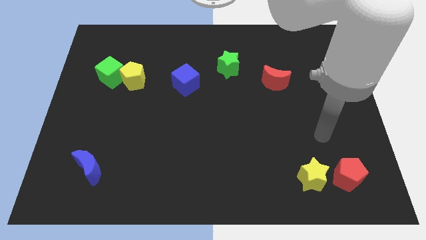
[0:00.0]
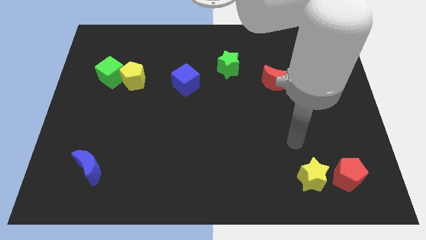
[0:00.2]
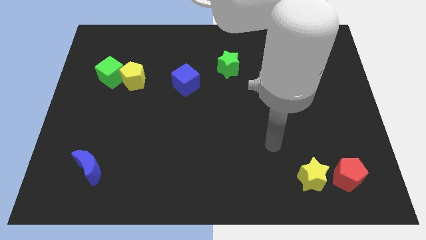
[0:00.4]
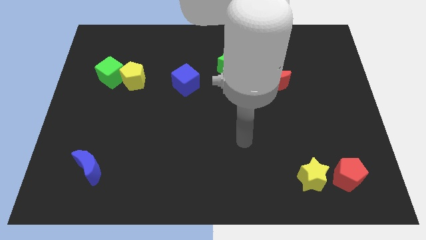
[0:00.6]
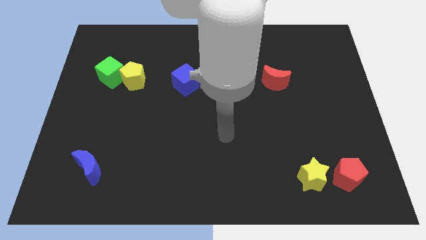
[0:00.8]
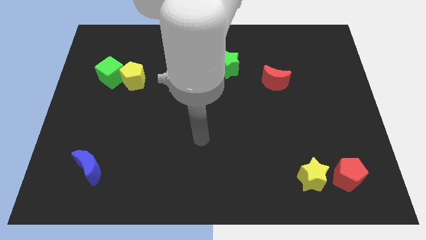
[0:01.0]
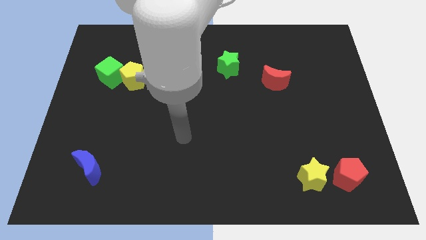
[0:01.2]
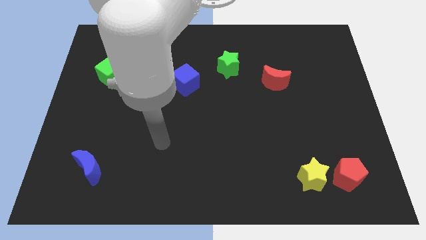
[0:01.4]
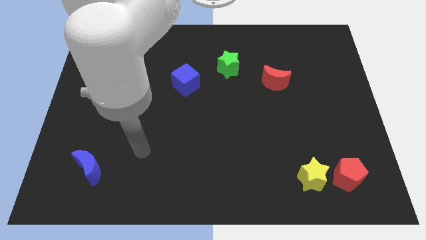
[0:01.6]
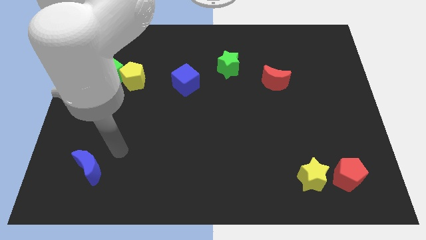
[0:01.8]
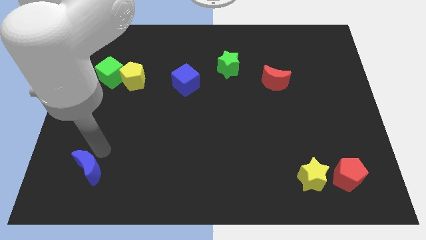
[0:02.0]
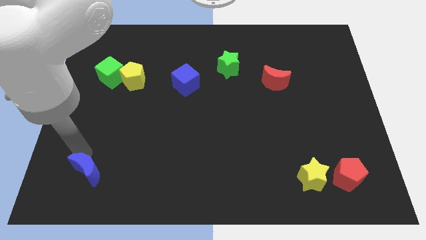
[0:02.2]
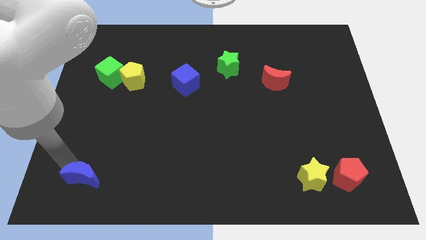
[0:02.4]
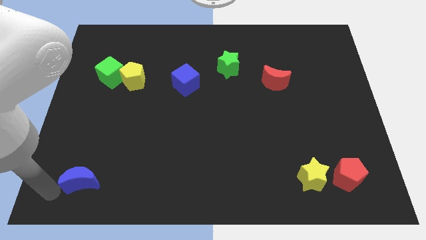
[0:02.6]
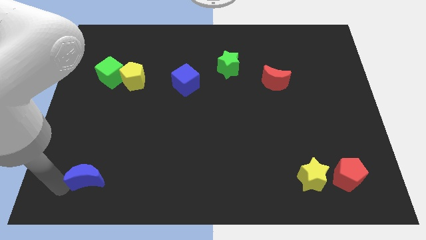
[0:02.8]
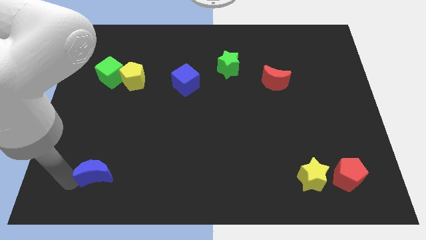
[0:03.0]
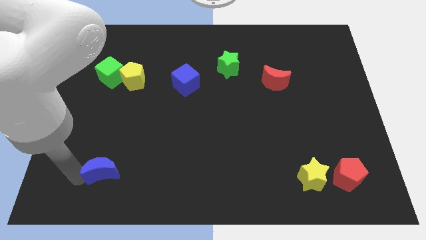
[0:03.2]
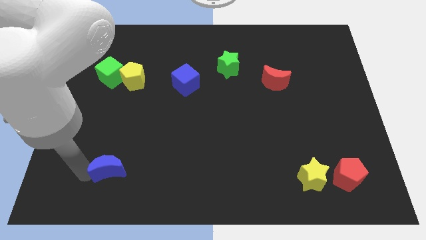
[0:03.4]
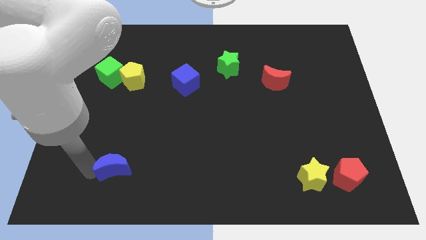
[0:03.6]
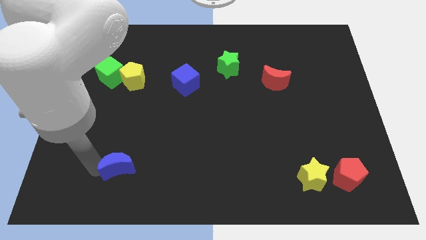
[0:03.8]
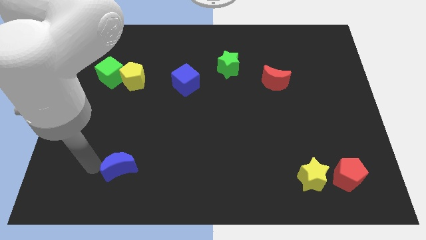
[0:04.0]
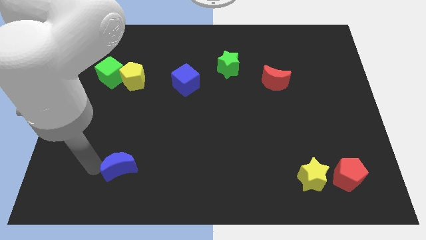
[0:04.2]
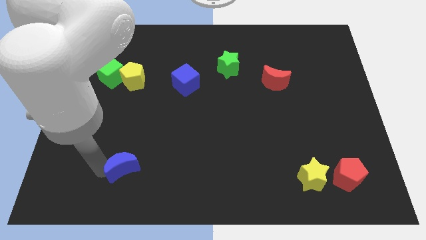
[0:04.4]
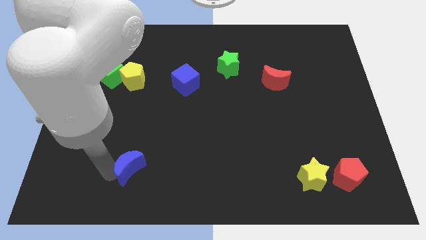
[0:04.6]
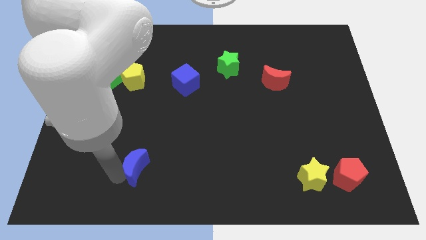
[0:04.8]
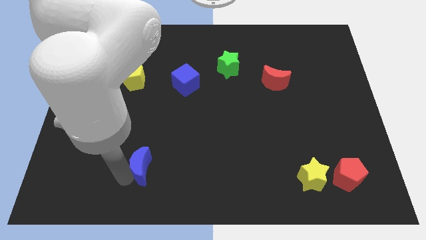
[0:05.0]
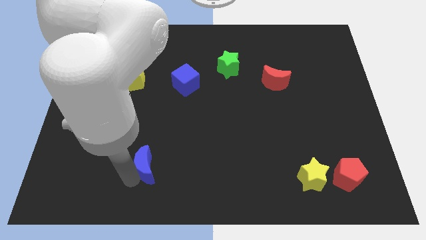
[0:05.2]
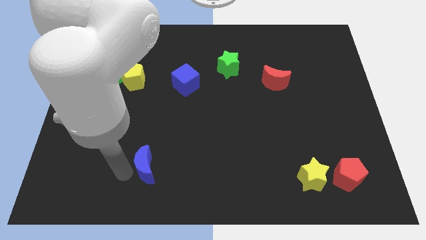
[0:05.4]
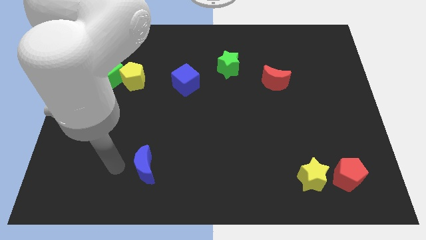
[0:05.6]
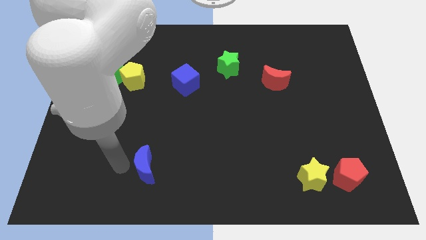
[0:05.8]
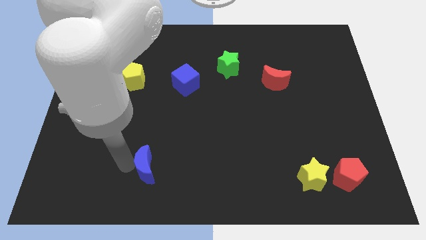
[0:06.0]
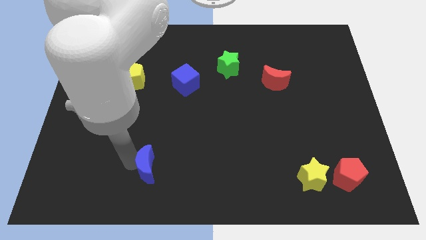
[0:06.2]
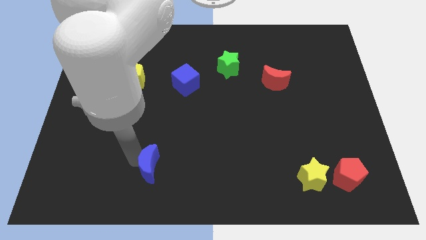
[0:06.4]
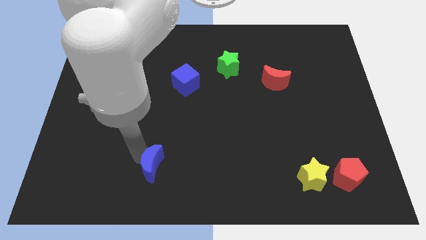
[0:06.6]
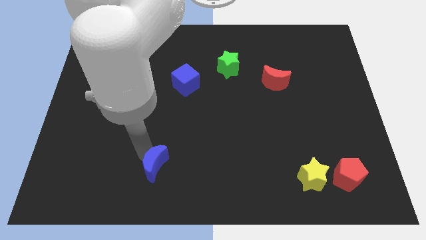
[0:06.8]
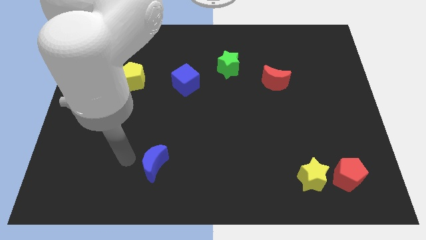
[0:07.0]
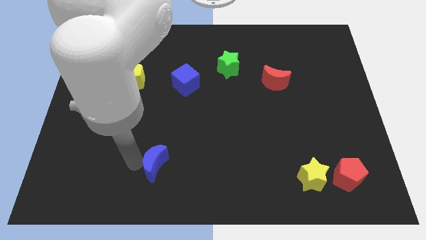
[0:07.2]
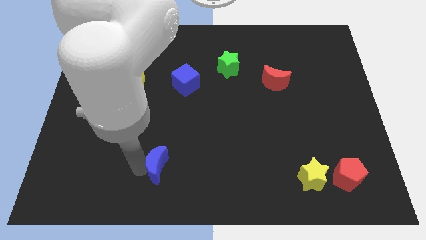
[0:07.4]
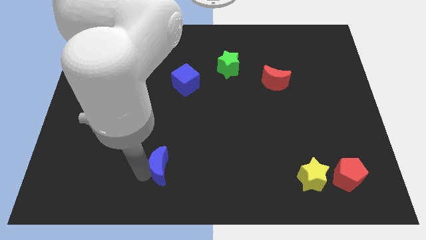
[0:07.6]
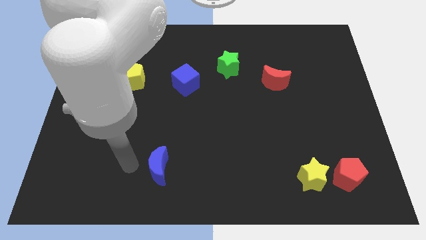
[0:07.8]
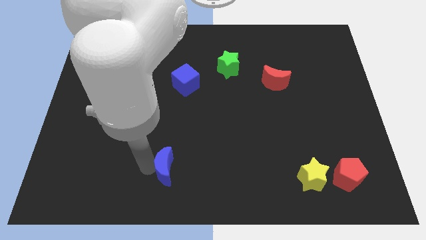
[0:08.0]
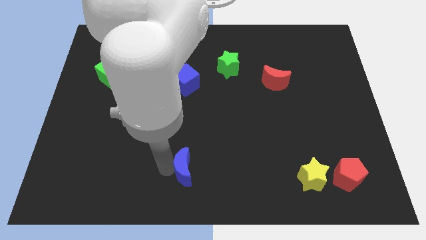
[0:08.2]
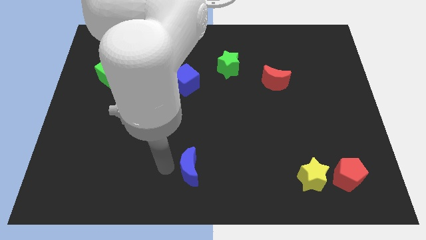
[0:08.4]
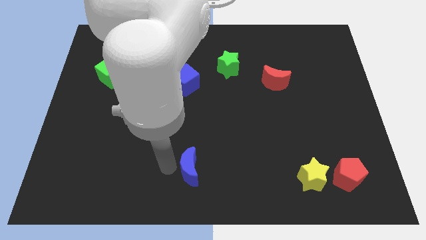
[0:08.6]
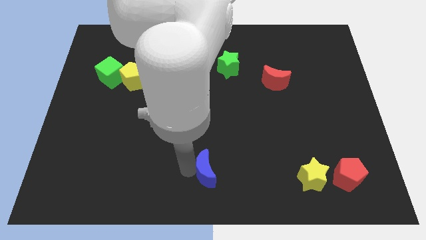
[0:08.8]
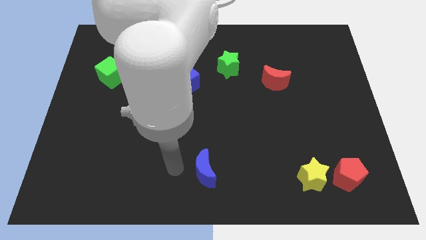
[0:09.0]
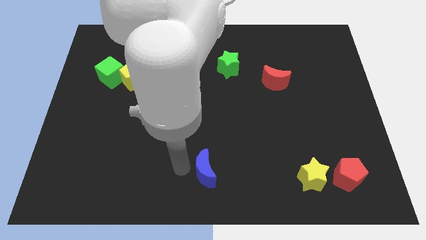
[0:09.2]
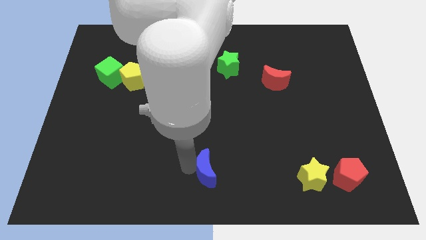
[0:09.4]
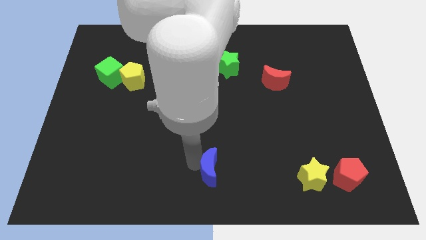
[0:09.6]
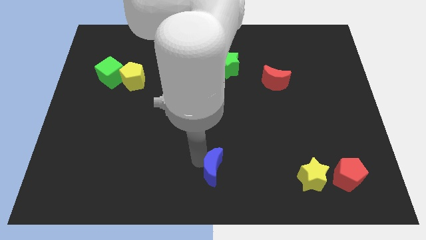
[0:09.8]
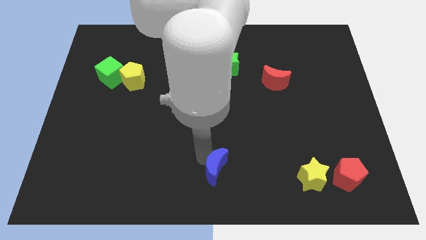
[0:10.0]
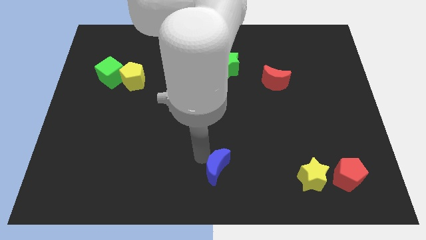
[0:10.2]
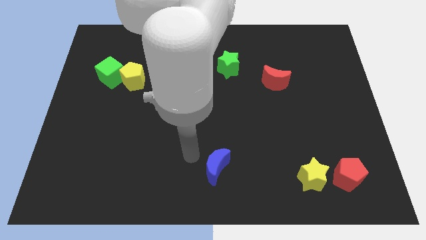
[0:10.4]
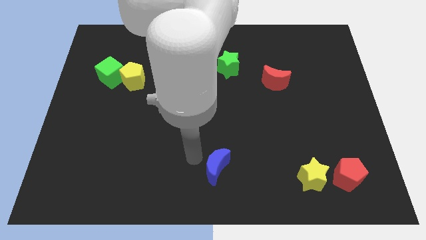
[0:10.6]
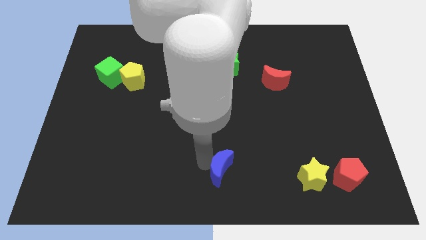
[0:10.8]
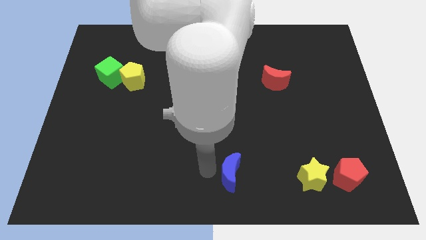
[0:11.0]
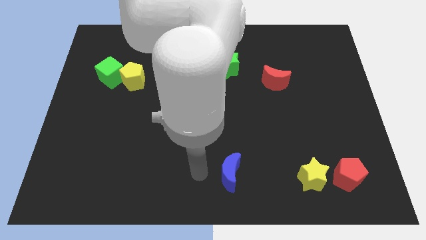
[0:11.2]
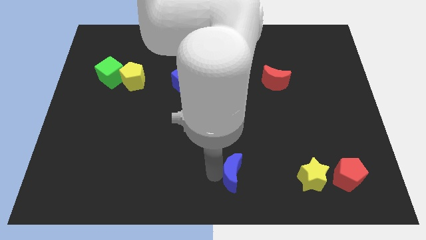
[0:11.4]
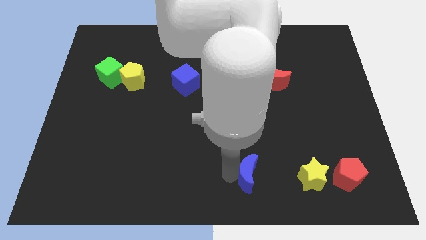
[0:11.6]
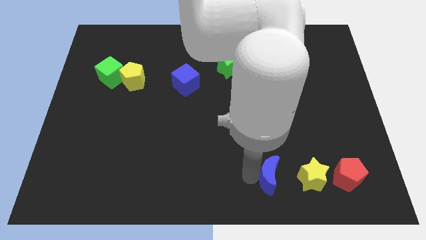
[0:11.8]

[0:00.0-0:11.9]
move the blue moon just left of the red pentagon

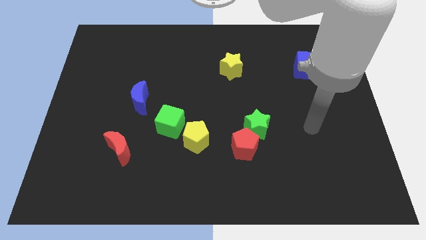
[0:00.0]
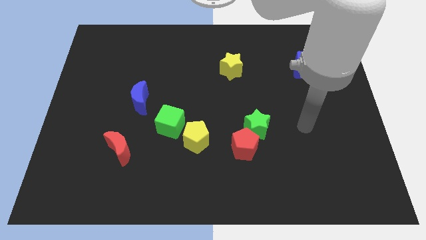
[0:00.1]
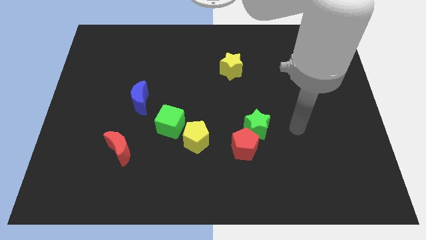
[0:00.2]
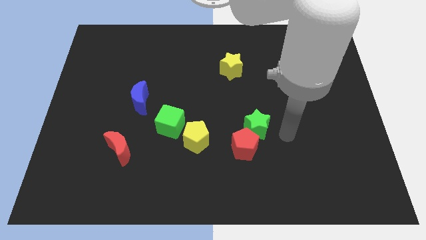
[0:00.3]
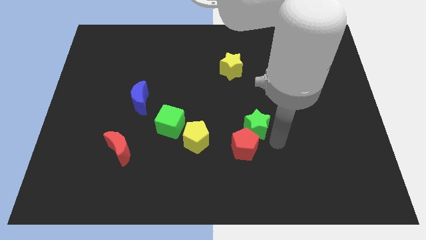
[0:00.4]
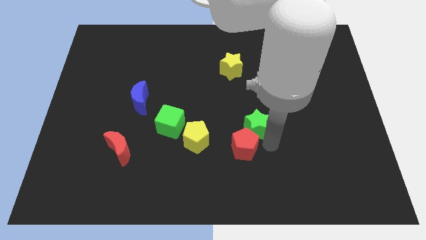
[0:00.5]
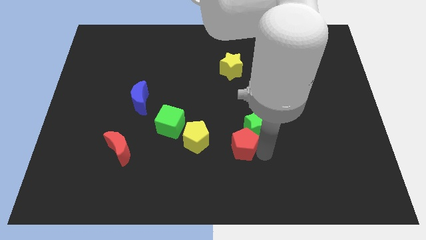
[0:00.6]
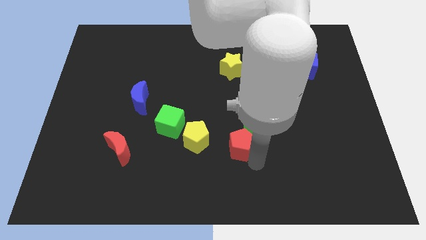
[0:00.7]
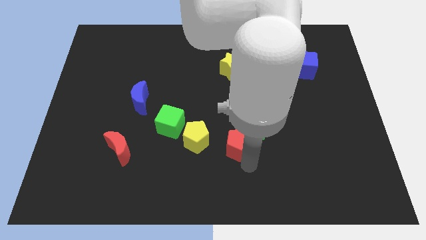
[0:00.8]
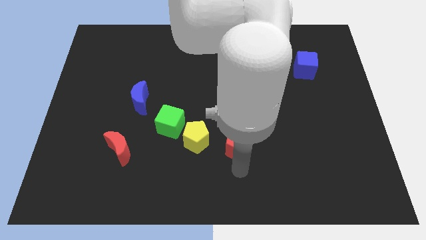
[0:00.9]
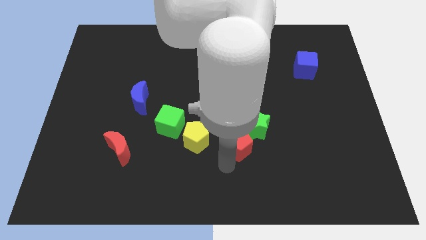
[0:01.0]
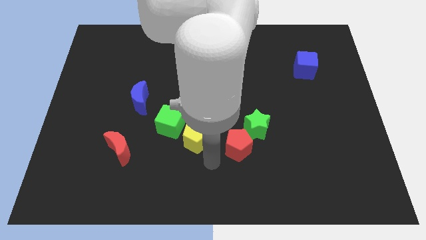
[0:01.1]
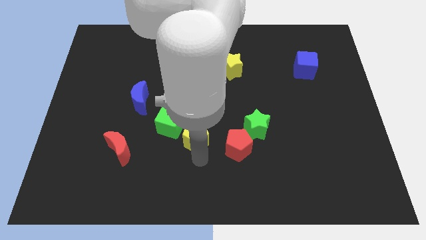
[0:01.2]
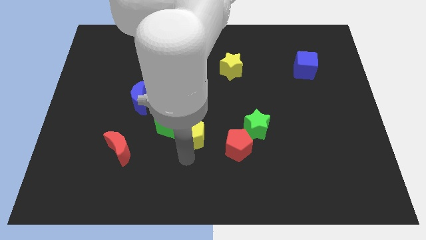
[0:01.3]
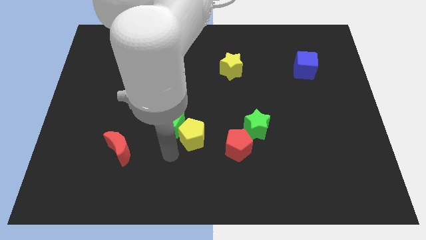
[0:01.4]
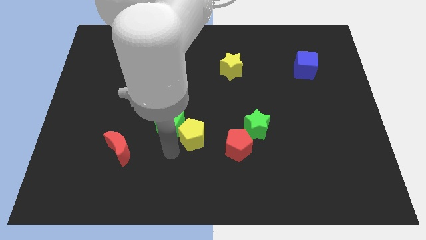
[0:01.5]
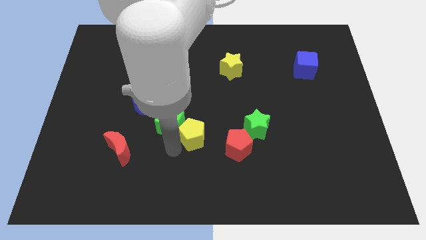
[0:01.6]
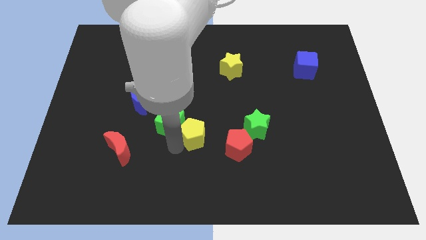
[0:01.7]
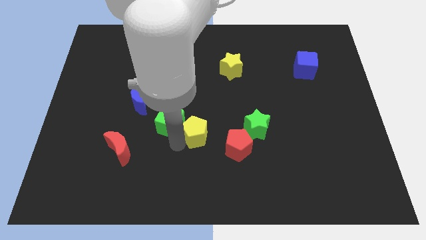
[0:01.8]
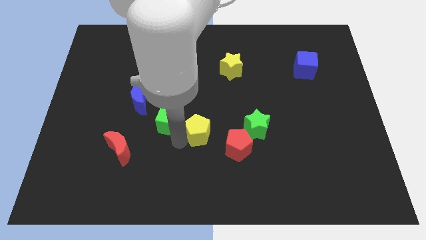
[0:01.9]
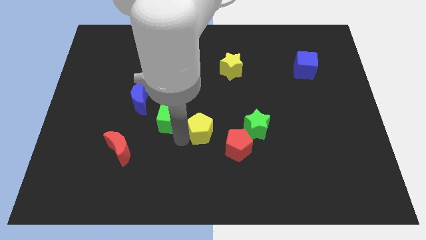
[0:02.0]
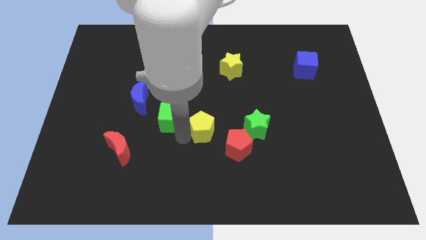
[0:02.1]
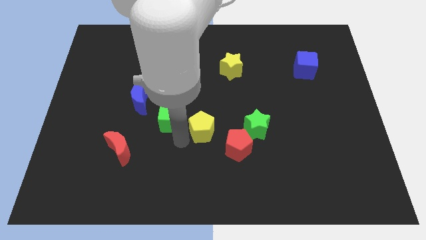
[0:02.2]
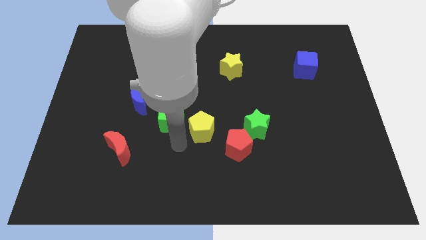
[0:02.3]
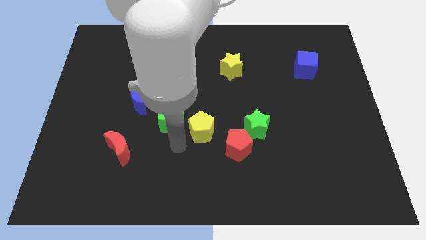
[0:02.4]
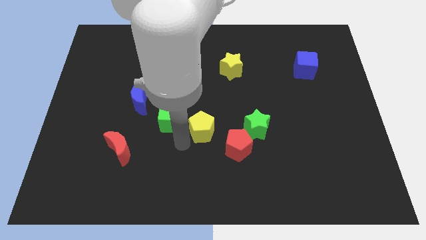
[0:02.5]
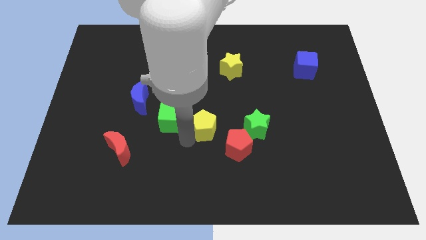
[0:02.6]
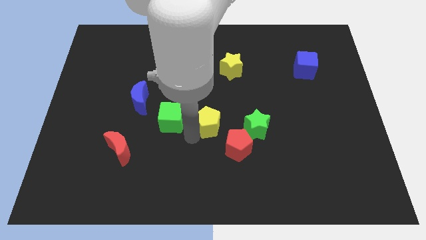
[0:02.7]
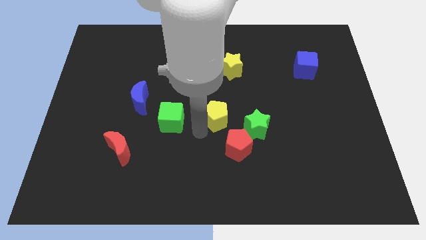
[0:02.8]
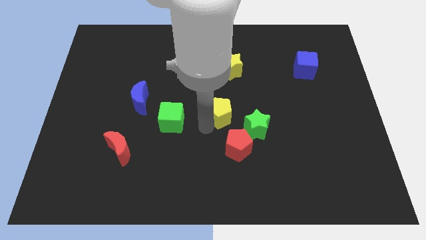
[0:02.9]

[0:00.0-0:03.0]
push the yellow pentagon to the bottom side of the yellow star
